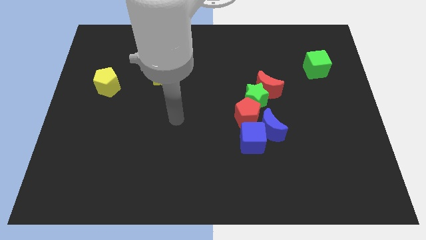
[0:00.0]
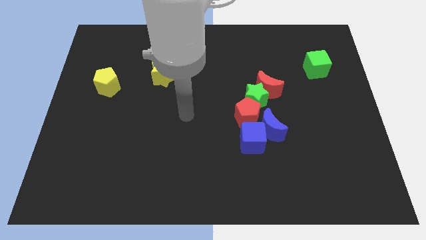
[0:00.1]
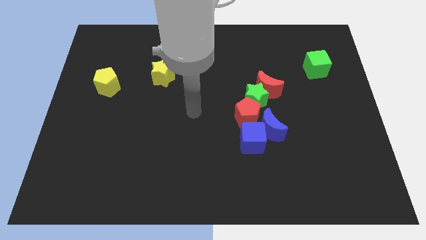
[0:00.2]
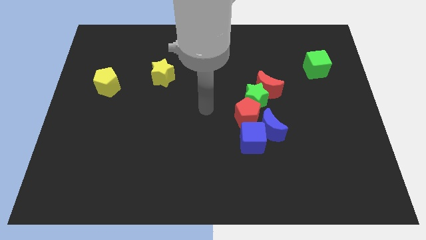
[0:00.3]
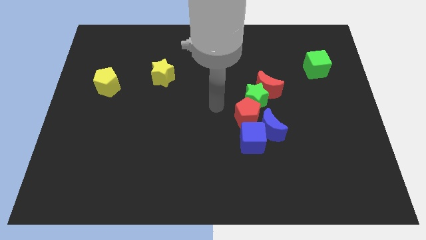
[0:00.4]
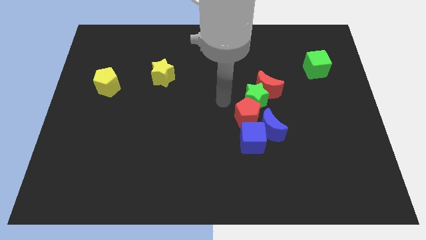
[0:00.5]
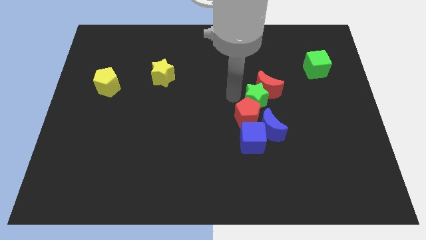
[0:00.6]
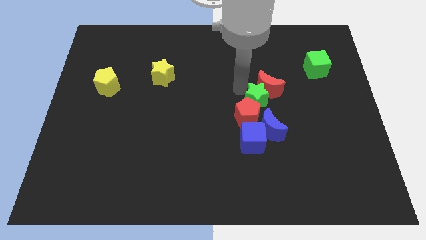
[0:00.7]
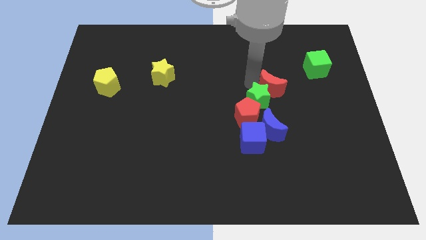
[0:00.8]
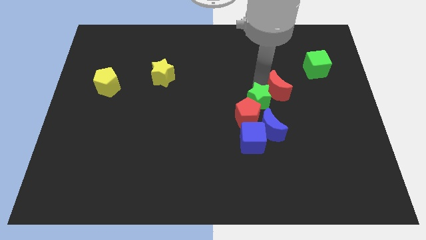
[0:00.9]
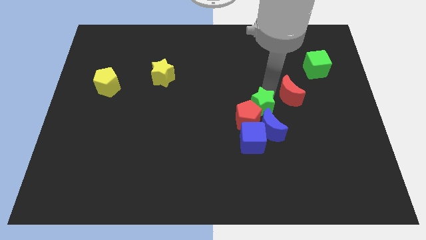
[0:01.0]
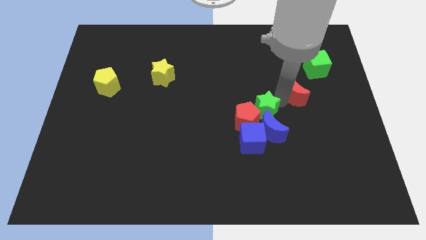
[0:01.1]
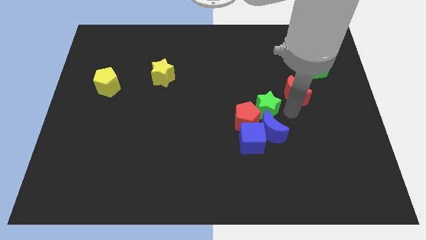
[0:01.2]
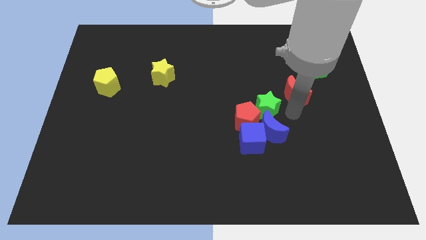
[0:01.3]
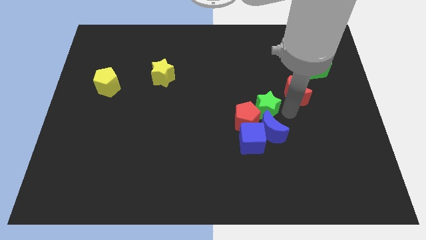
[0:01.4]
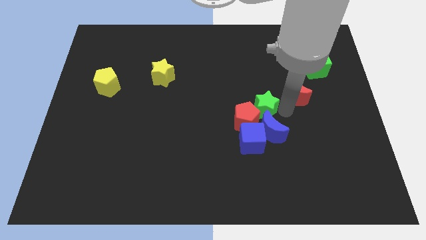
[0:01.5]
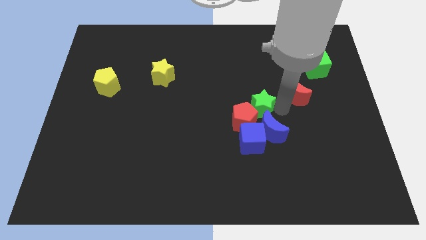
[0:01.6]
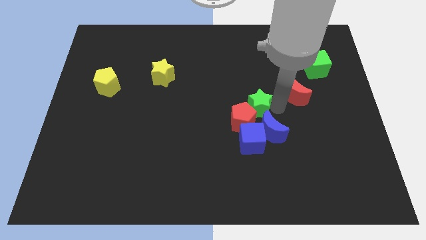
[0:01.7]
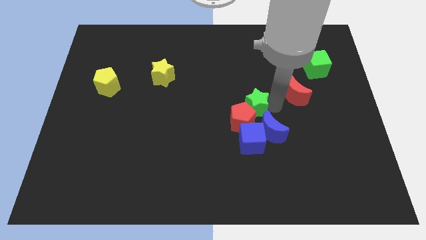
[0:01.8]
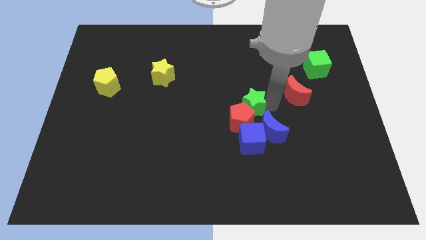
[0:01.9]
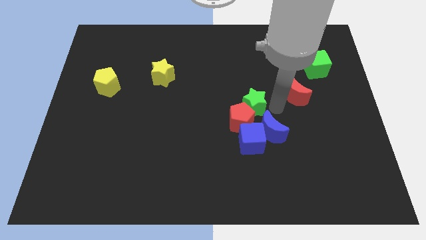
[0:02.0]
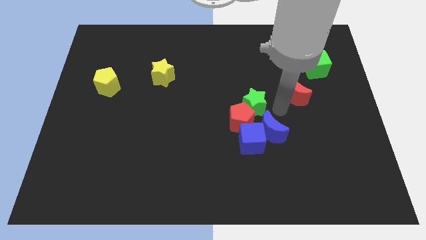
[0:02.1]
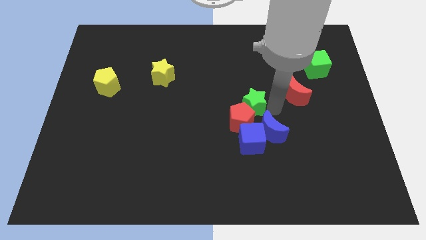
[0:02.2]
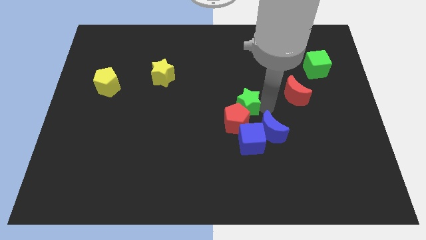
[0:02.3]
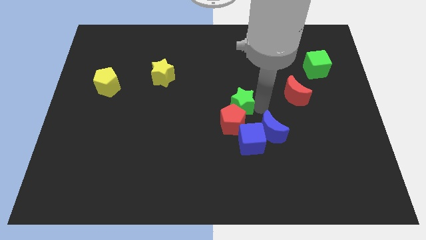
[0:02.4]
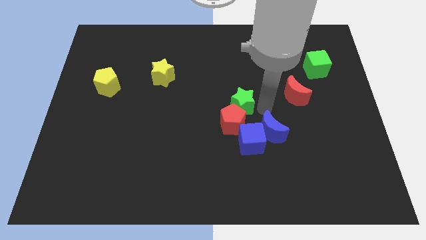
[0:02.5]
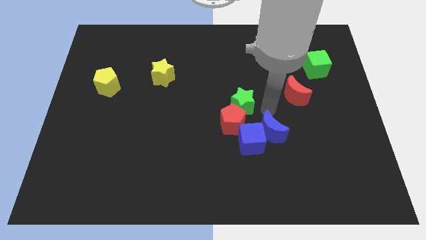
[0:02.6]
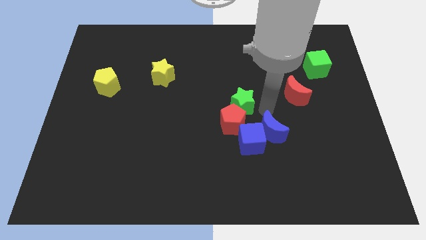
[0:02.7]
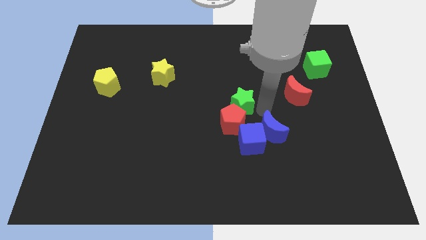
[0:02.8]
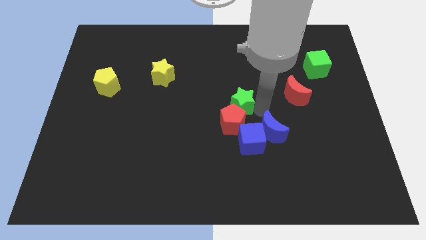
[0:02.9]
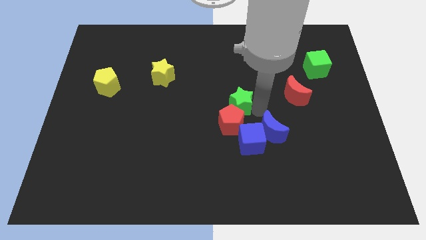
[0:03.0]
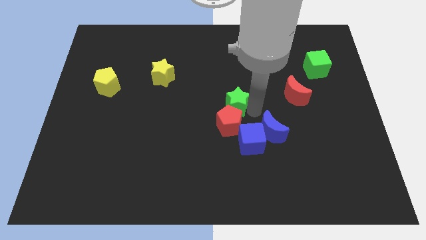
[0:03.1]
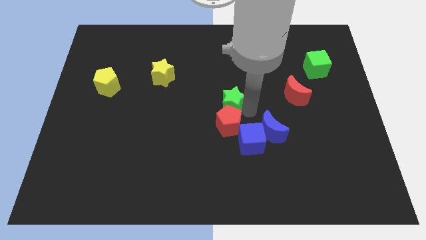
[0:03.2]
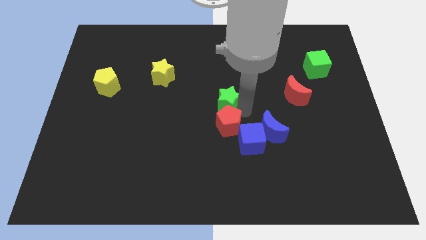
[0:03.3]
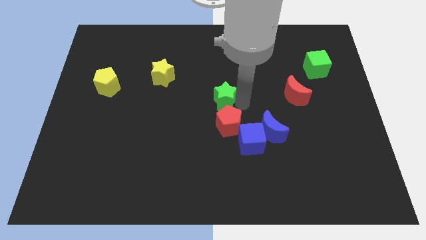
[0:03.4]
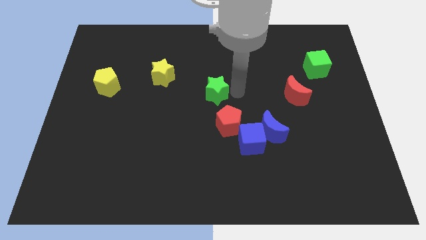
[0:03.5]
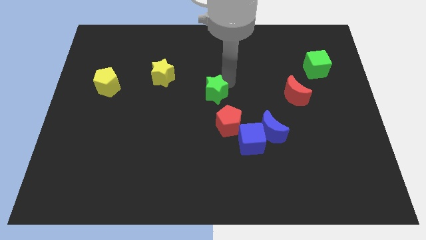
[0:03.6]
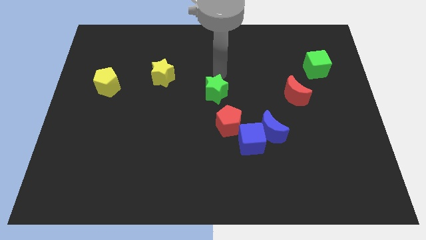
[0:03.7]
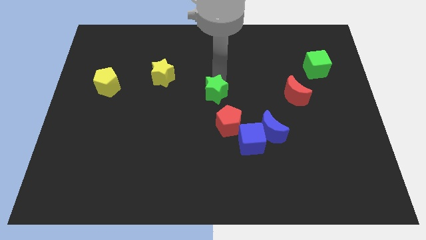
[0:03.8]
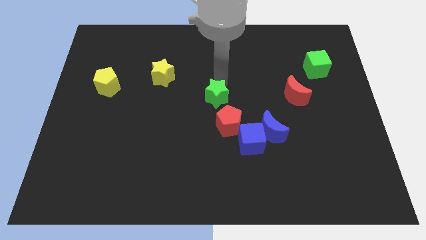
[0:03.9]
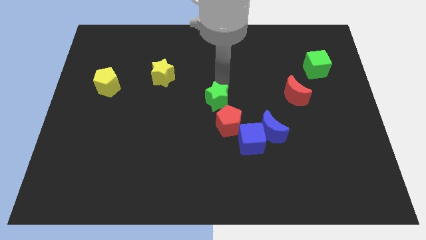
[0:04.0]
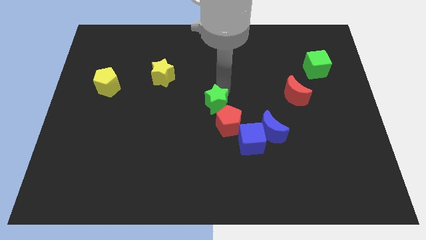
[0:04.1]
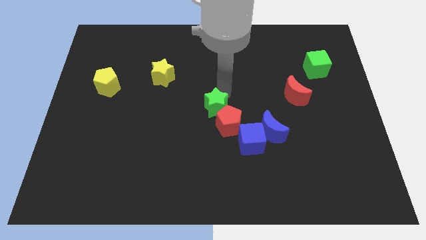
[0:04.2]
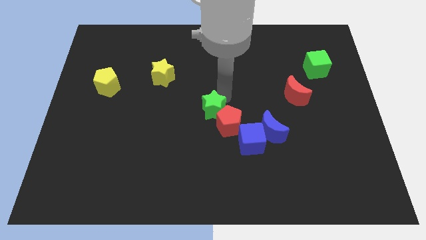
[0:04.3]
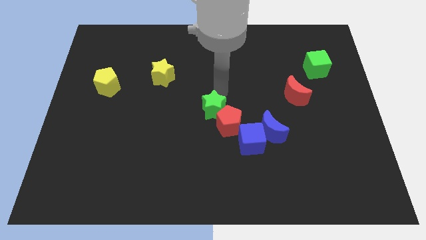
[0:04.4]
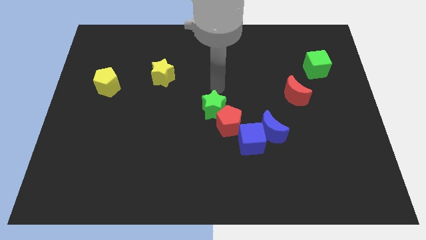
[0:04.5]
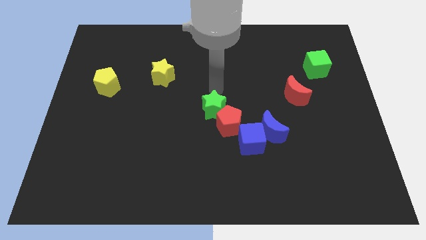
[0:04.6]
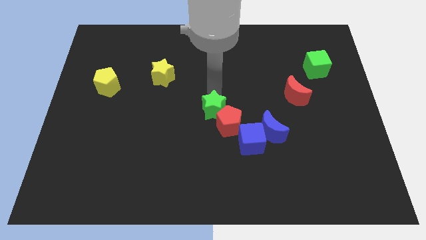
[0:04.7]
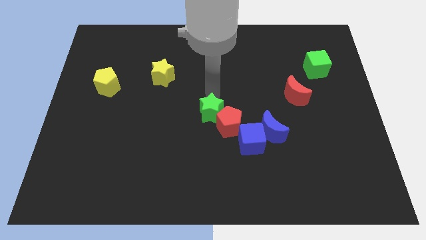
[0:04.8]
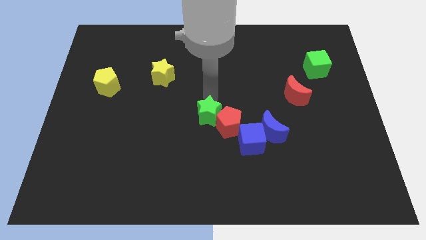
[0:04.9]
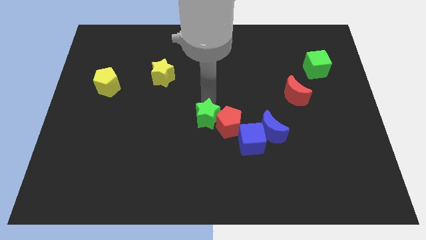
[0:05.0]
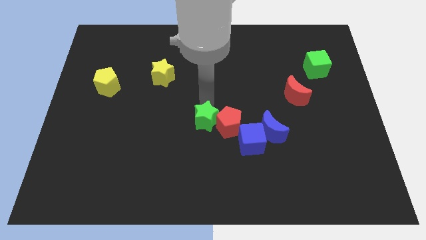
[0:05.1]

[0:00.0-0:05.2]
slide the green star to the bottom left side of the red pentagon

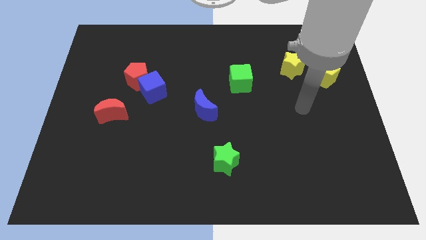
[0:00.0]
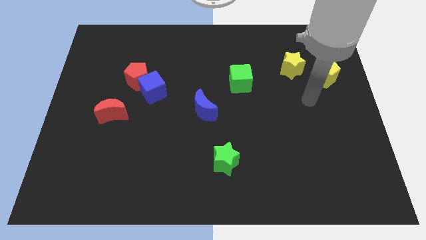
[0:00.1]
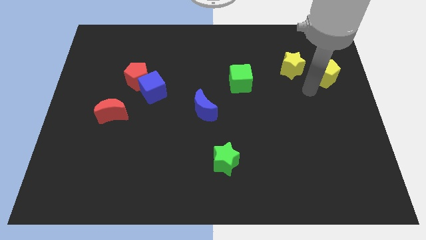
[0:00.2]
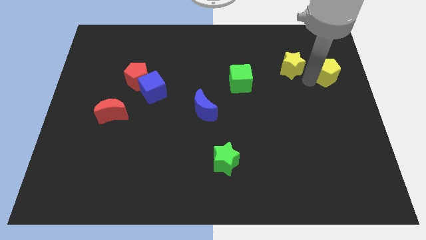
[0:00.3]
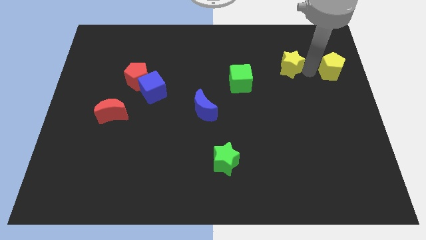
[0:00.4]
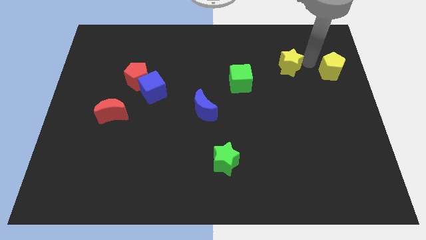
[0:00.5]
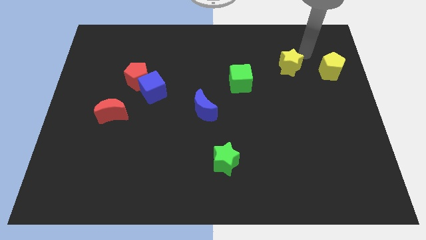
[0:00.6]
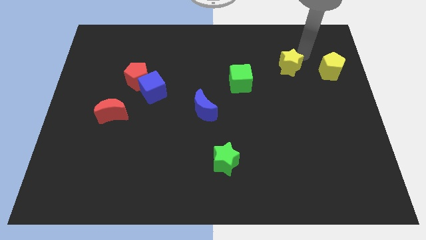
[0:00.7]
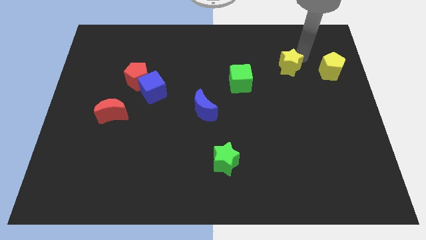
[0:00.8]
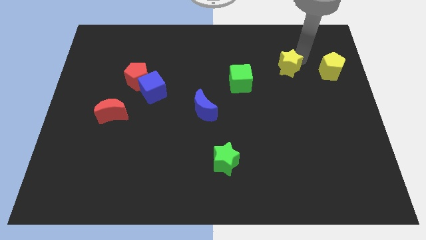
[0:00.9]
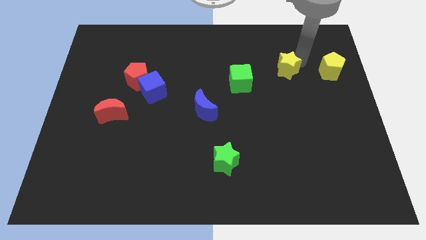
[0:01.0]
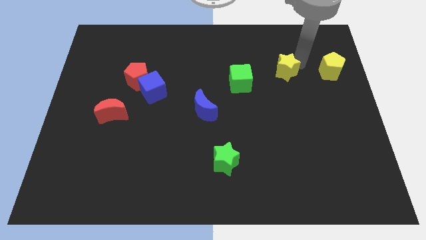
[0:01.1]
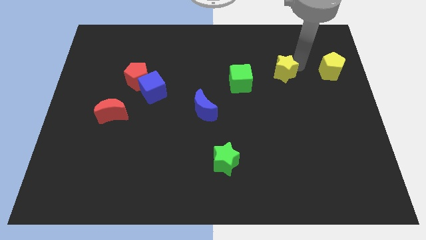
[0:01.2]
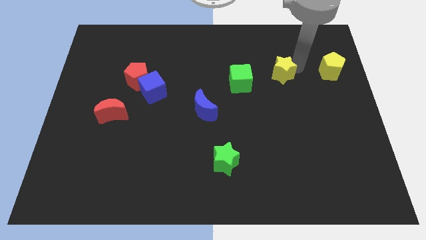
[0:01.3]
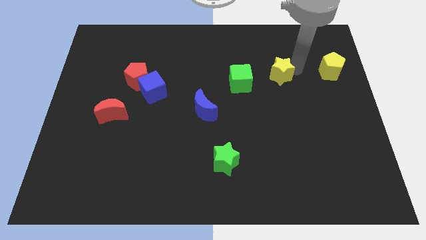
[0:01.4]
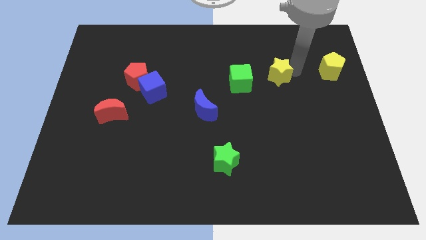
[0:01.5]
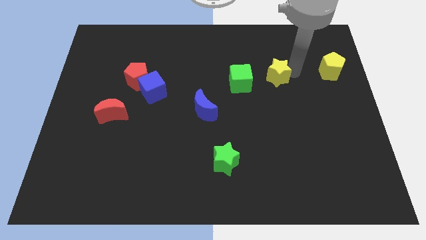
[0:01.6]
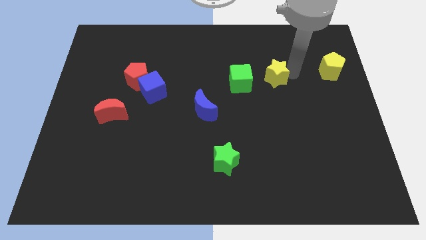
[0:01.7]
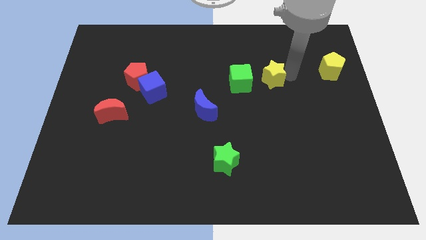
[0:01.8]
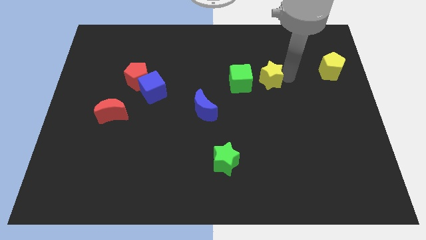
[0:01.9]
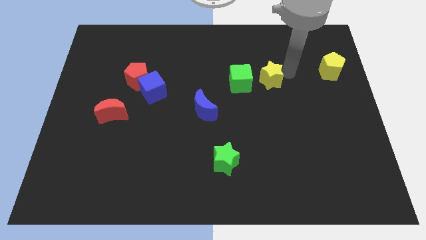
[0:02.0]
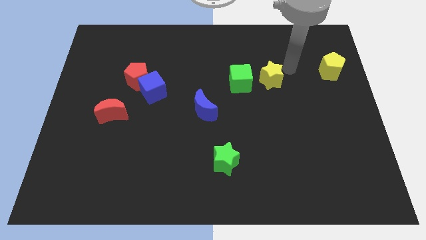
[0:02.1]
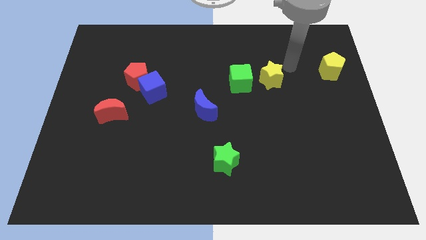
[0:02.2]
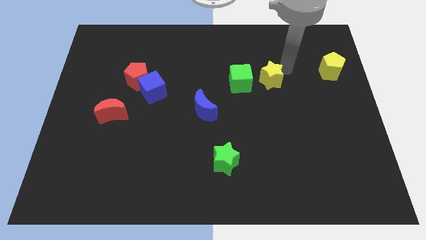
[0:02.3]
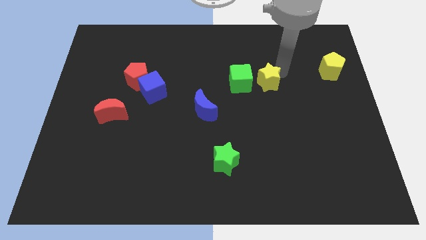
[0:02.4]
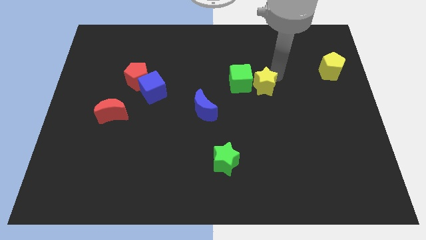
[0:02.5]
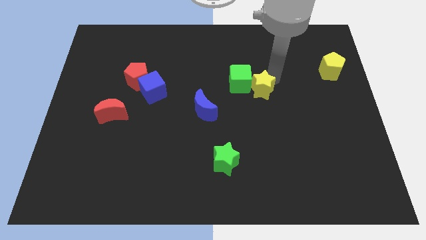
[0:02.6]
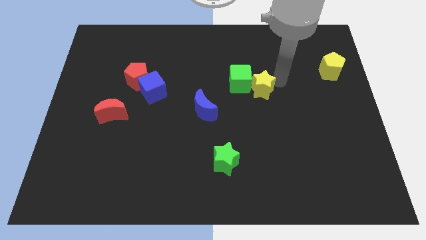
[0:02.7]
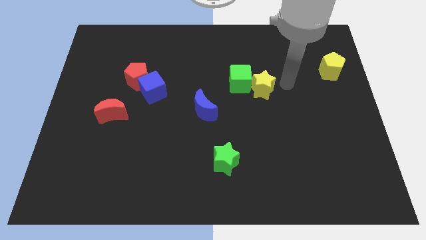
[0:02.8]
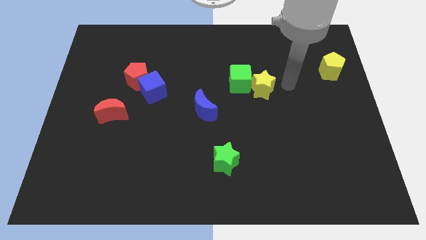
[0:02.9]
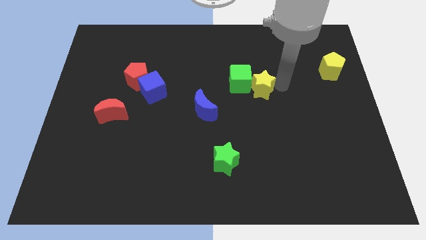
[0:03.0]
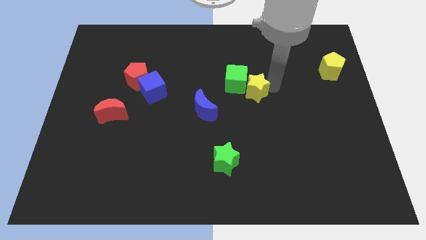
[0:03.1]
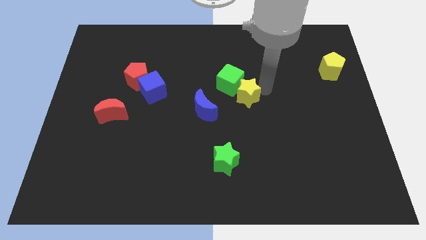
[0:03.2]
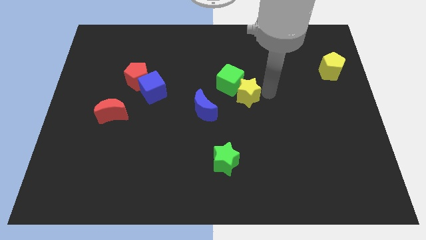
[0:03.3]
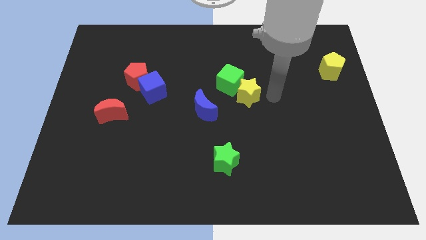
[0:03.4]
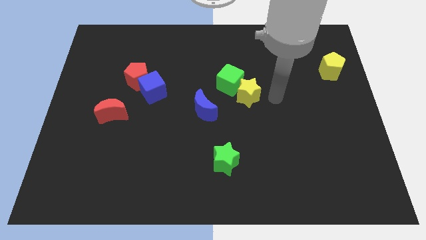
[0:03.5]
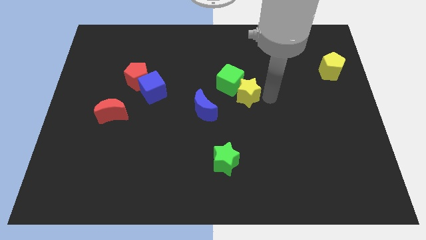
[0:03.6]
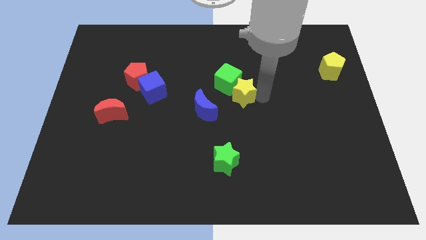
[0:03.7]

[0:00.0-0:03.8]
push the yellow star to the top right of the blue moon
